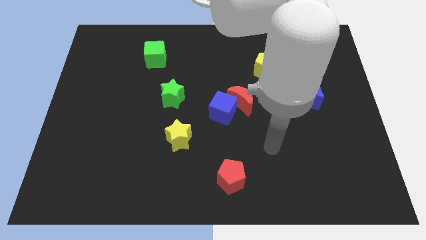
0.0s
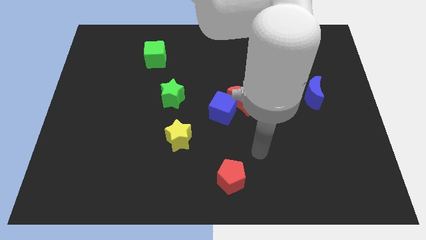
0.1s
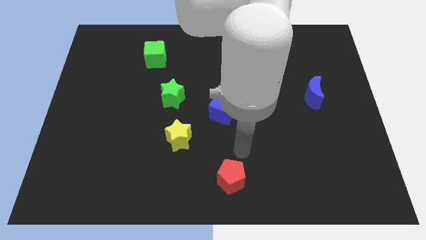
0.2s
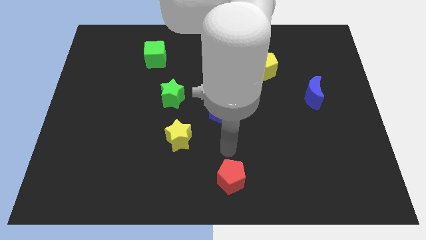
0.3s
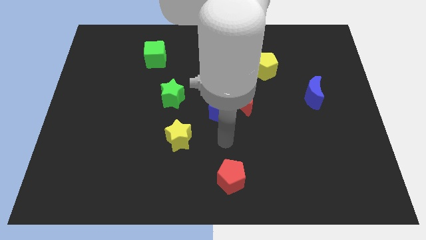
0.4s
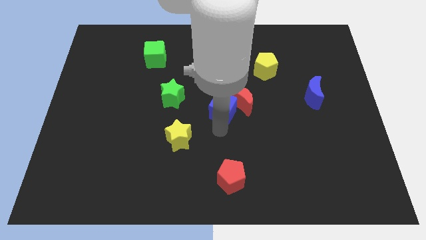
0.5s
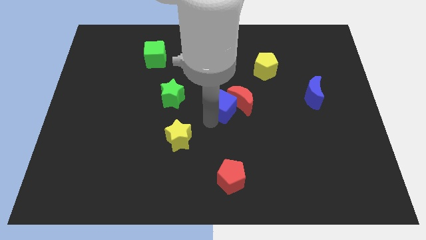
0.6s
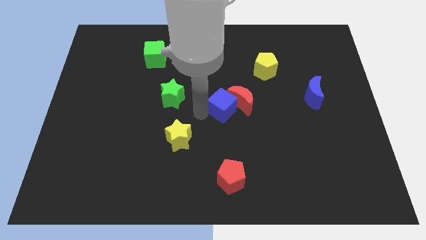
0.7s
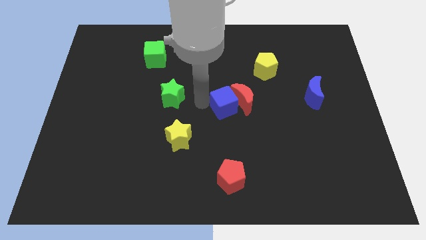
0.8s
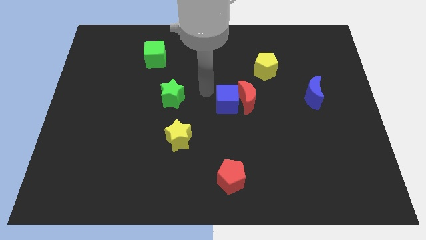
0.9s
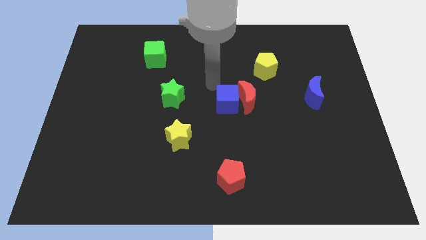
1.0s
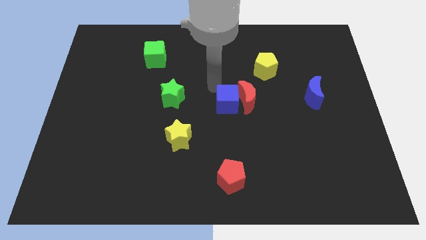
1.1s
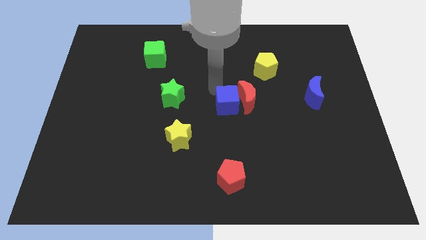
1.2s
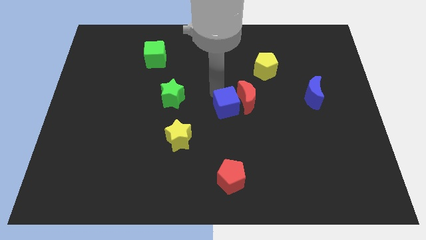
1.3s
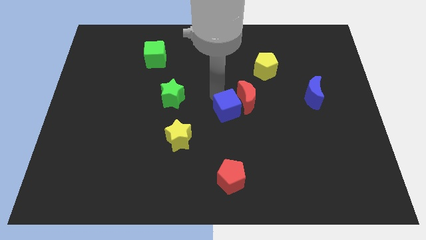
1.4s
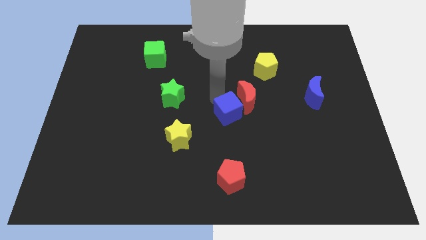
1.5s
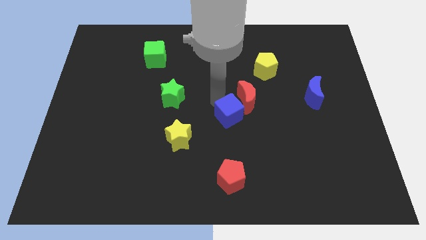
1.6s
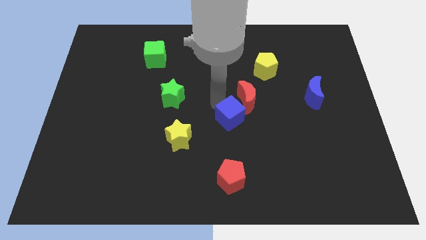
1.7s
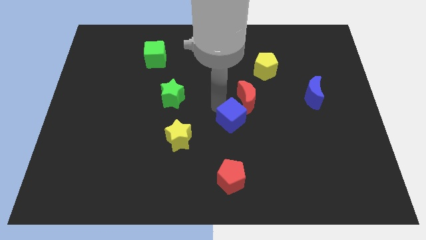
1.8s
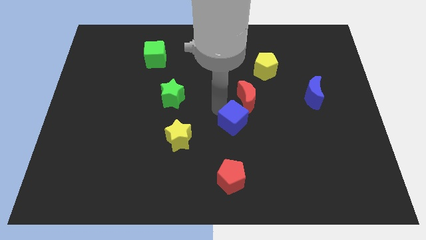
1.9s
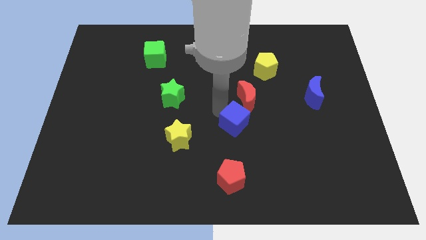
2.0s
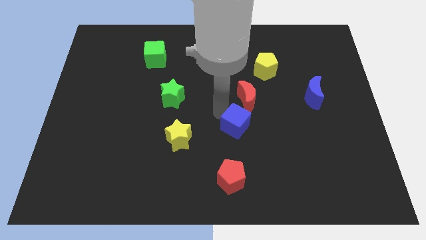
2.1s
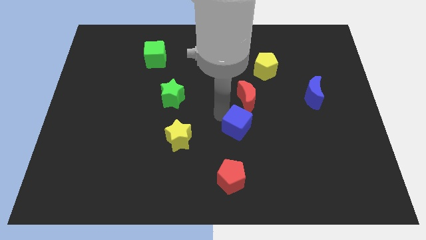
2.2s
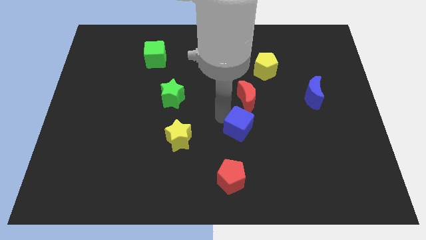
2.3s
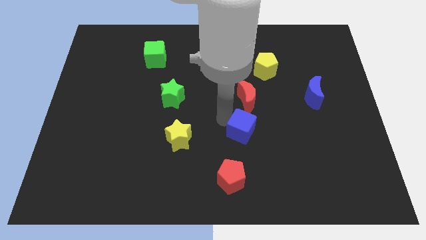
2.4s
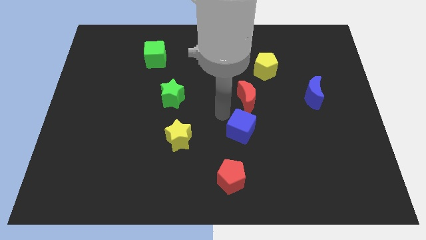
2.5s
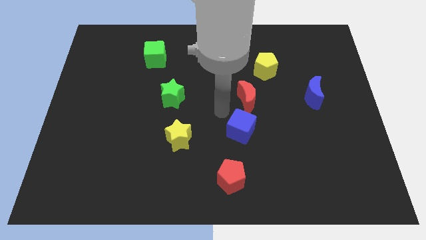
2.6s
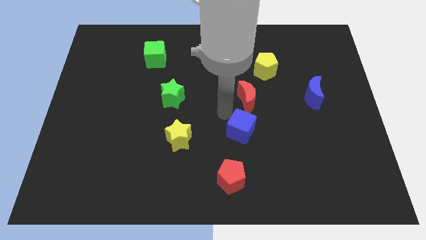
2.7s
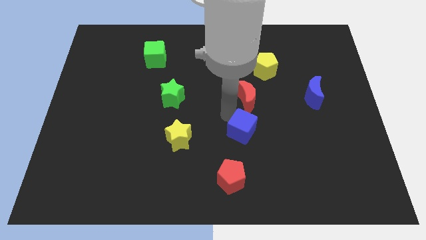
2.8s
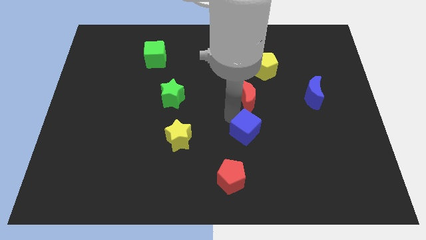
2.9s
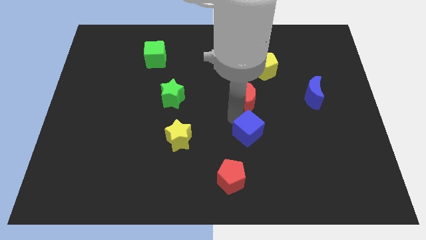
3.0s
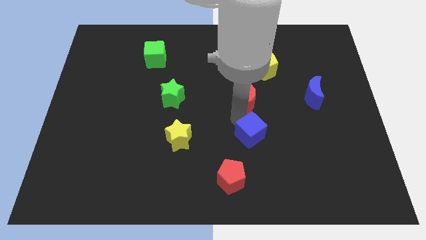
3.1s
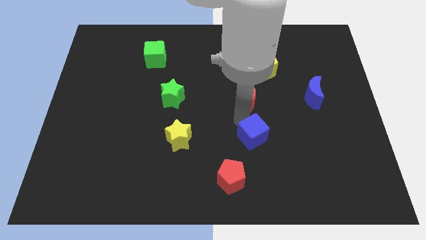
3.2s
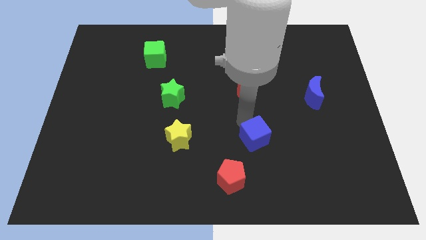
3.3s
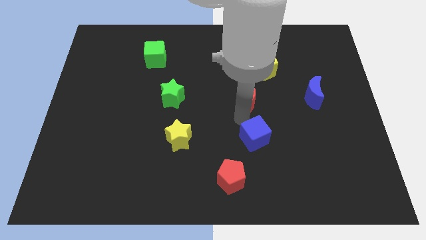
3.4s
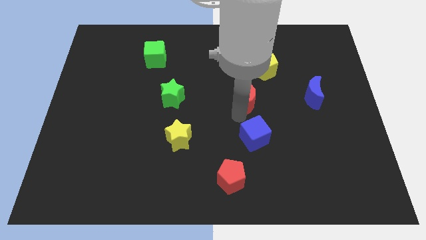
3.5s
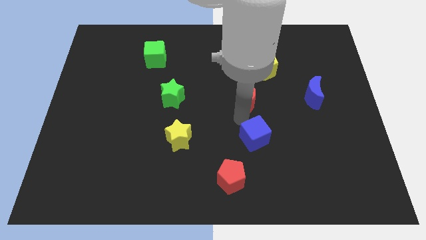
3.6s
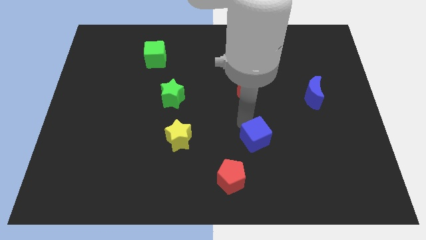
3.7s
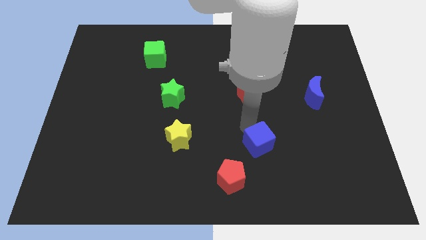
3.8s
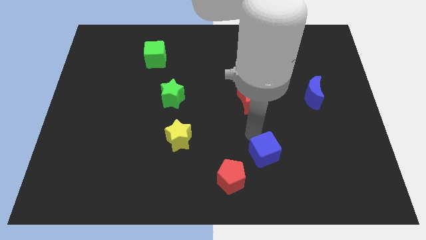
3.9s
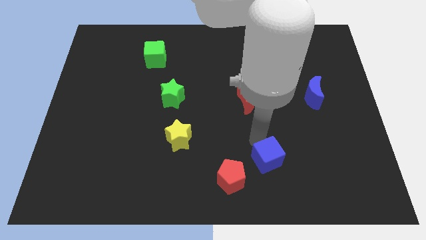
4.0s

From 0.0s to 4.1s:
move the blue cube to the right side of the red pentagon

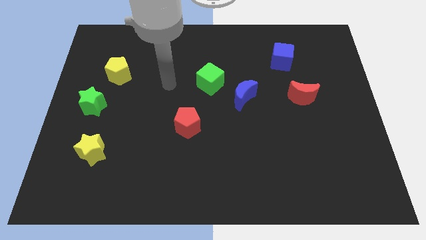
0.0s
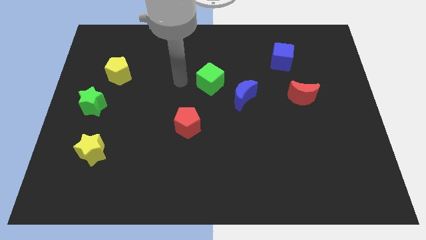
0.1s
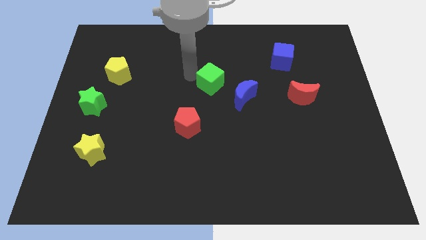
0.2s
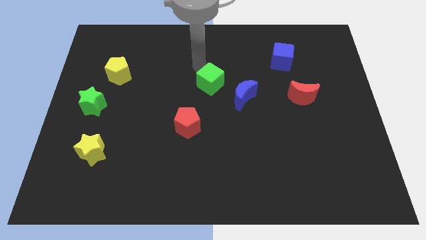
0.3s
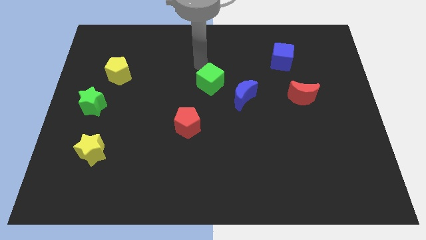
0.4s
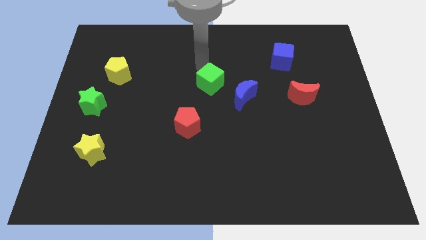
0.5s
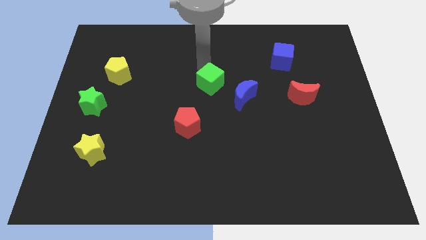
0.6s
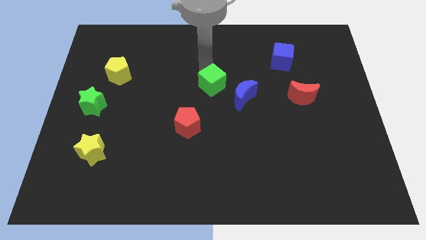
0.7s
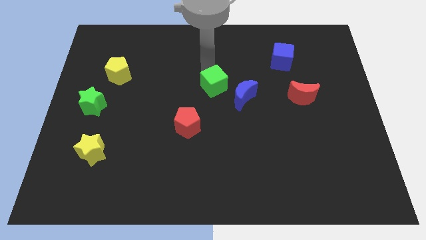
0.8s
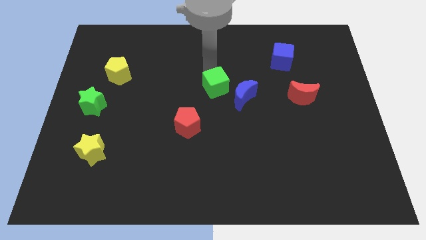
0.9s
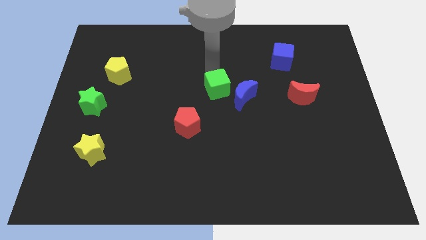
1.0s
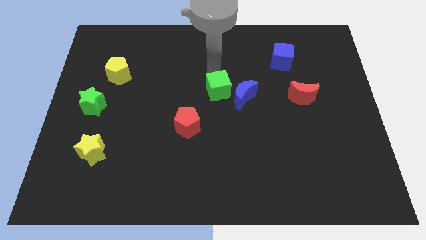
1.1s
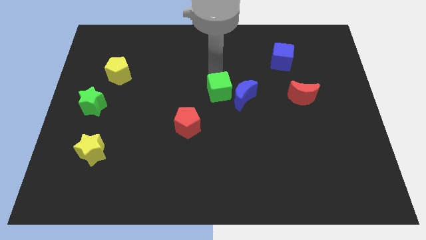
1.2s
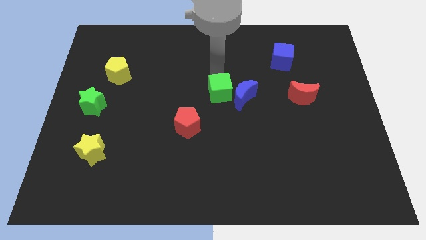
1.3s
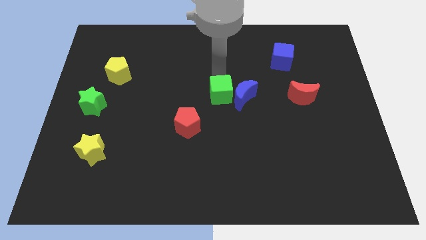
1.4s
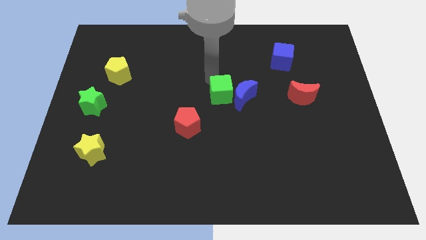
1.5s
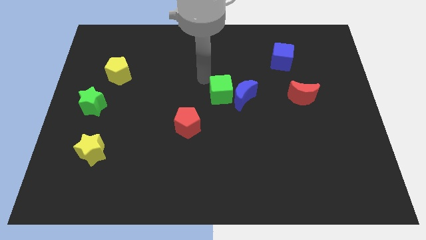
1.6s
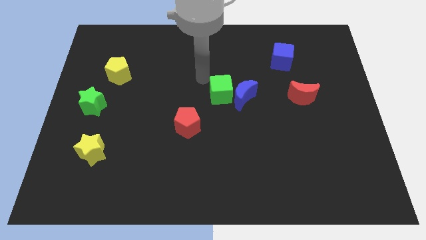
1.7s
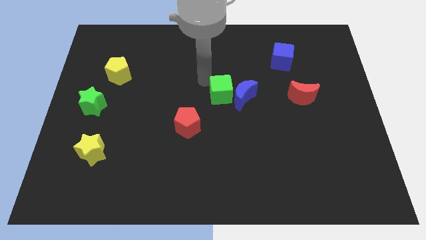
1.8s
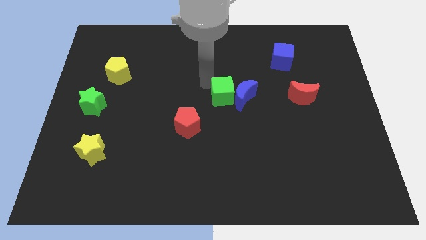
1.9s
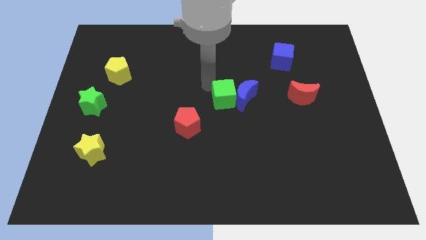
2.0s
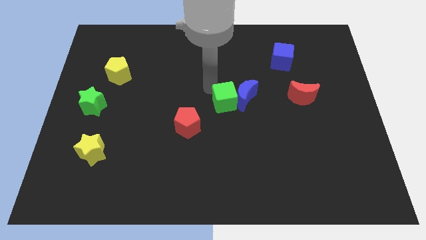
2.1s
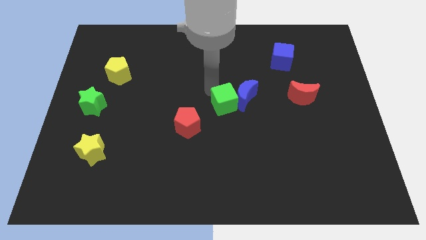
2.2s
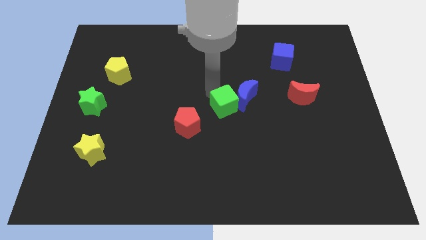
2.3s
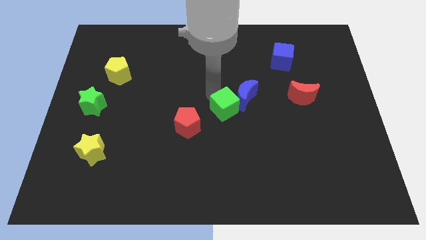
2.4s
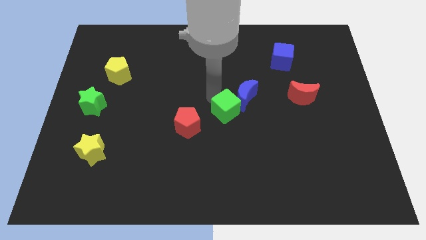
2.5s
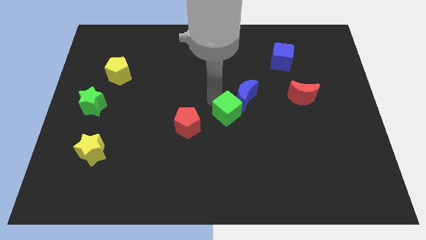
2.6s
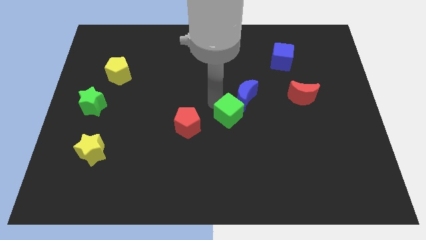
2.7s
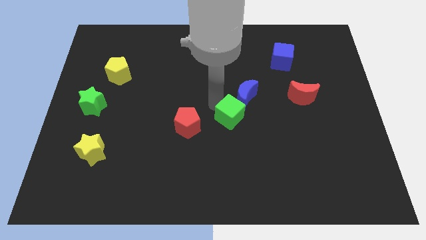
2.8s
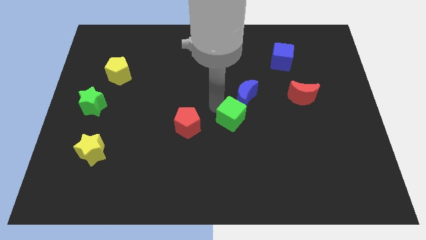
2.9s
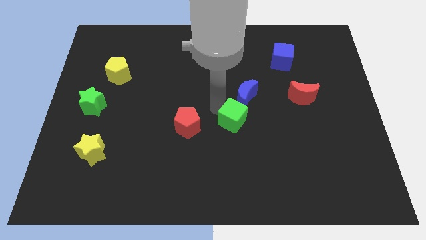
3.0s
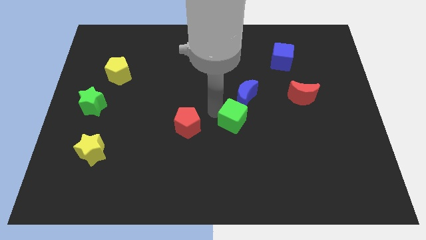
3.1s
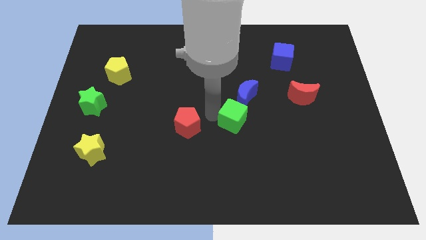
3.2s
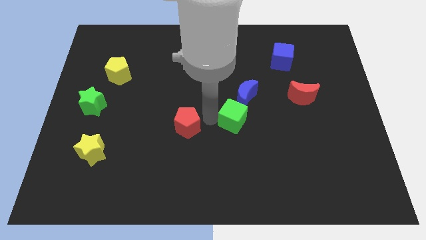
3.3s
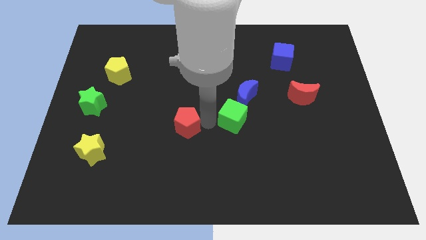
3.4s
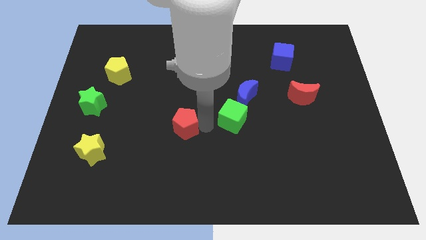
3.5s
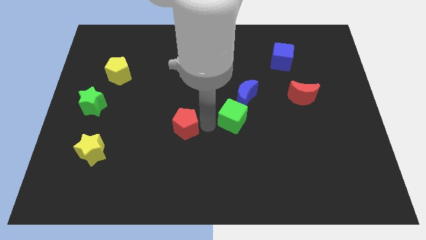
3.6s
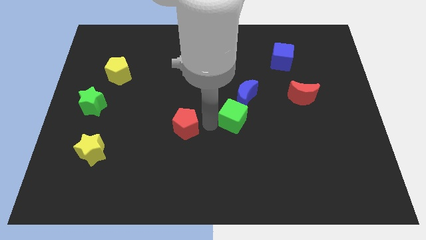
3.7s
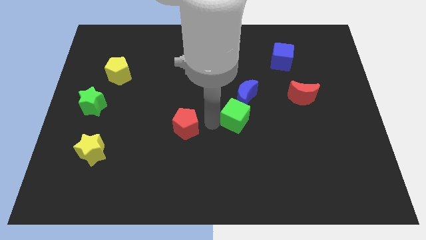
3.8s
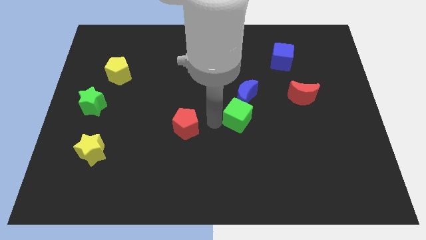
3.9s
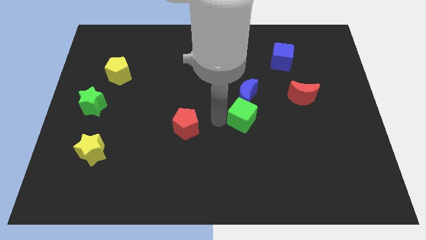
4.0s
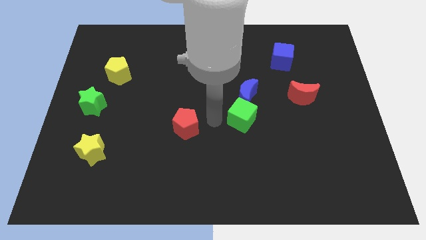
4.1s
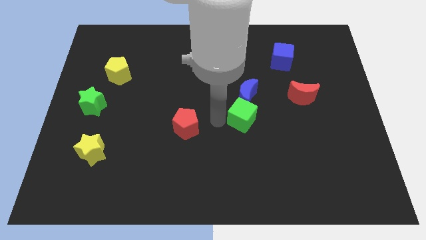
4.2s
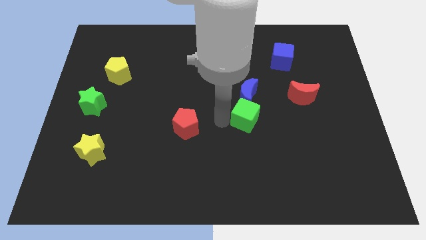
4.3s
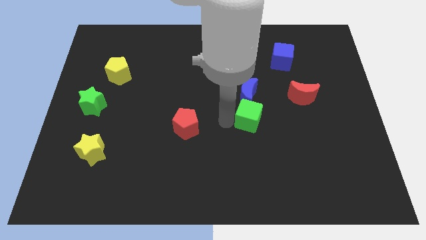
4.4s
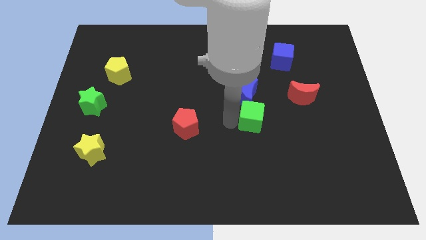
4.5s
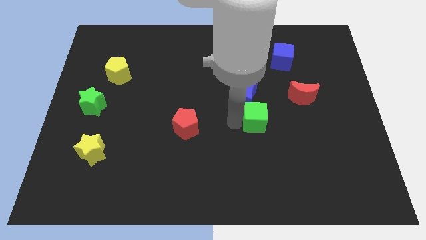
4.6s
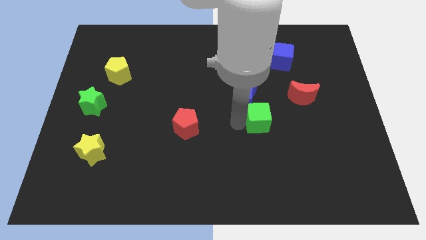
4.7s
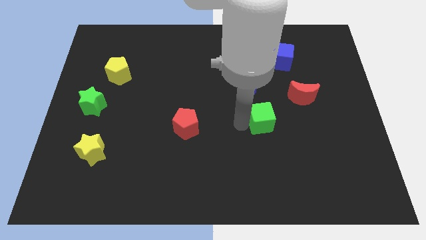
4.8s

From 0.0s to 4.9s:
move the green cube to the bottom left of the red moon
